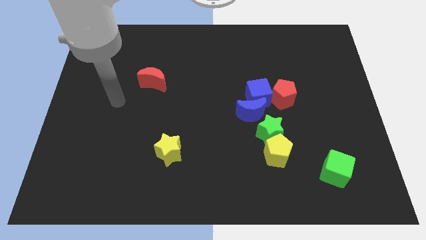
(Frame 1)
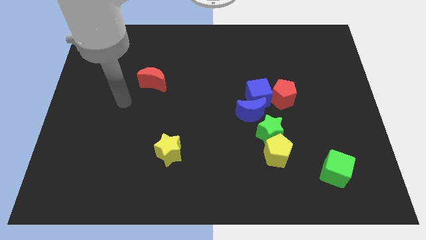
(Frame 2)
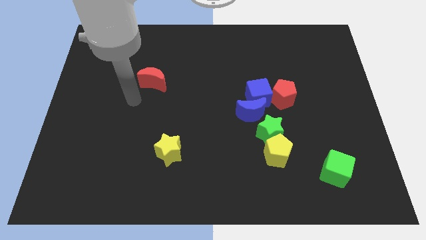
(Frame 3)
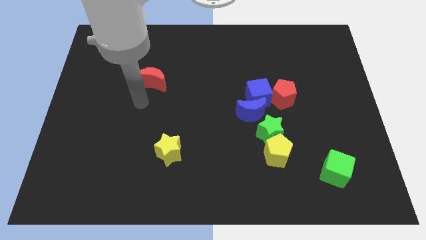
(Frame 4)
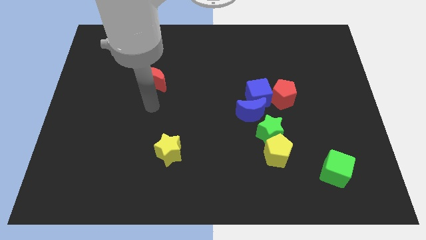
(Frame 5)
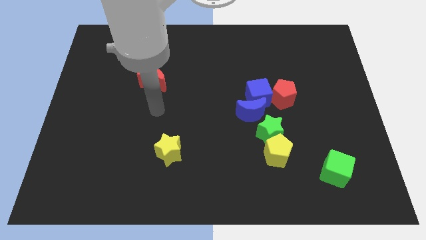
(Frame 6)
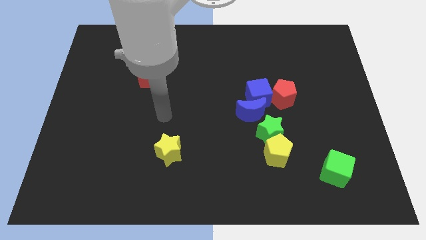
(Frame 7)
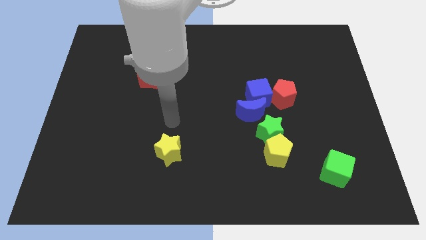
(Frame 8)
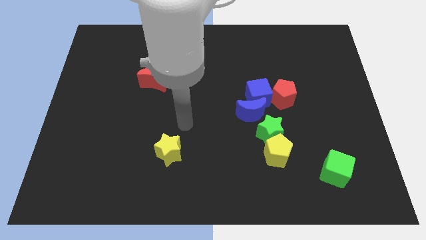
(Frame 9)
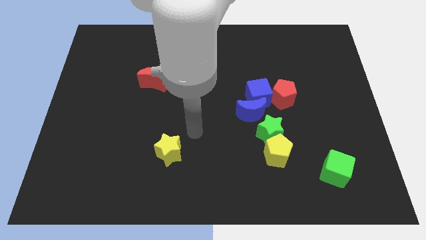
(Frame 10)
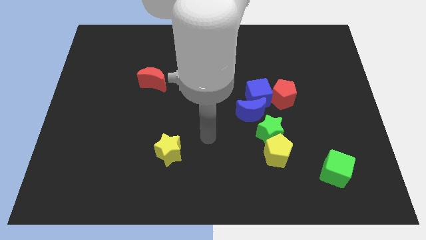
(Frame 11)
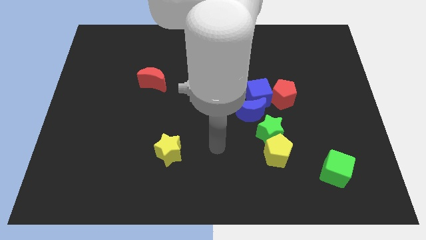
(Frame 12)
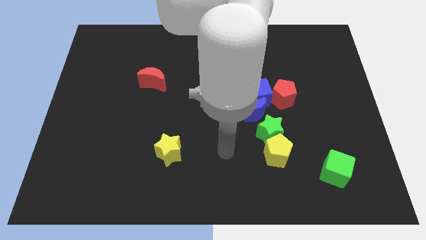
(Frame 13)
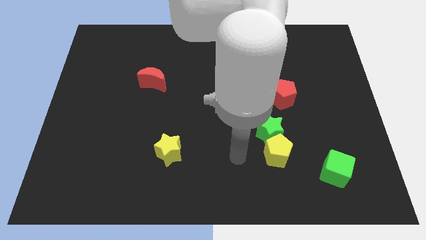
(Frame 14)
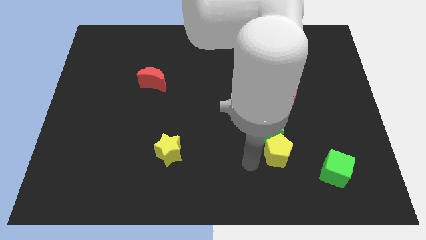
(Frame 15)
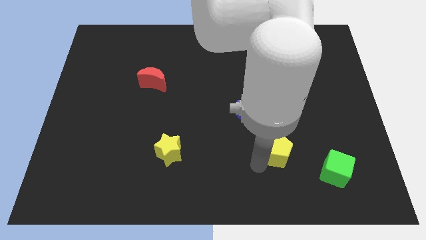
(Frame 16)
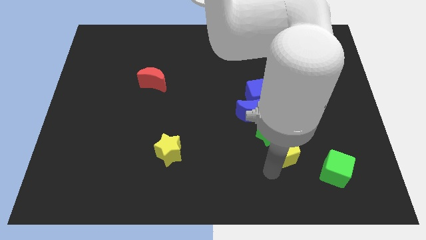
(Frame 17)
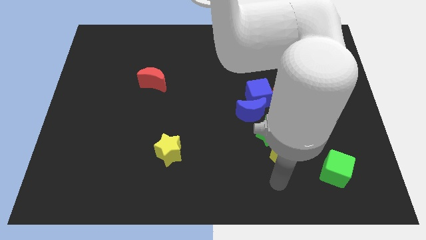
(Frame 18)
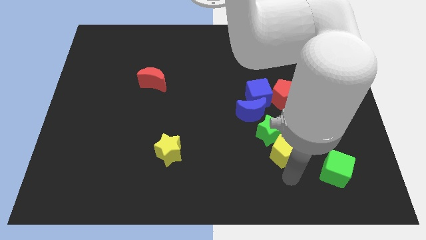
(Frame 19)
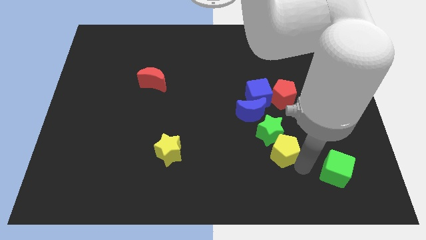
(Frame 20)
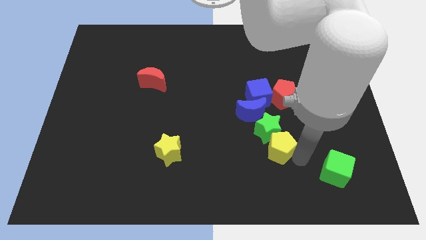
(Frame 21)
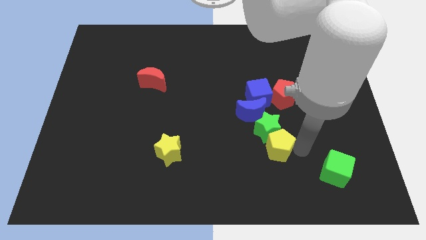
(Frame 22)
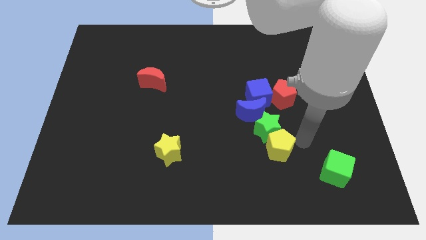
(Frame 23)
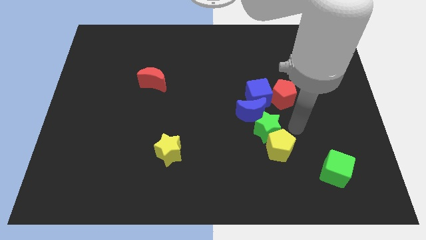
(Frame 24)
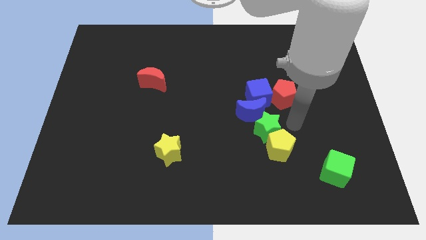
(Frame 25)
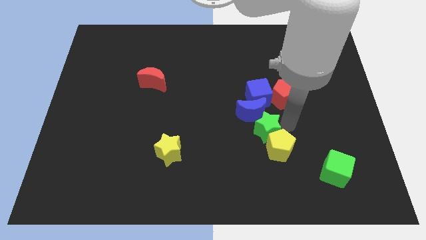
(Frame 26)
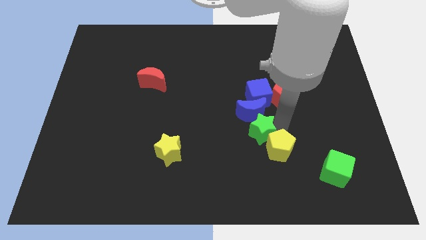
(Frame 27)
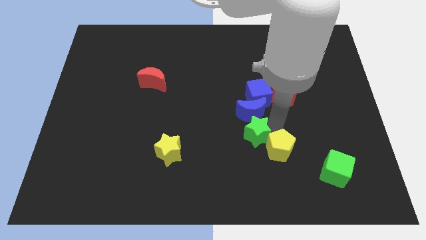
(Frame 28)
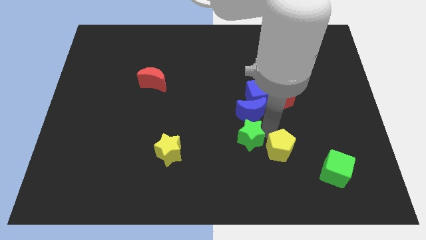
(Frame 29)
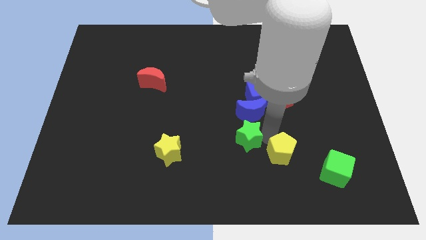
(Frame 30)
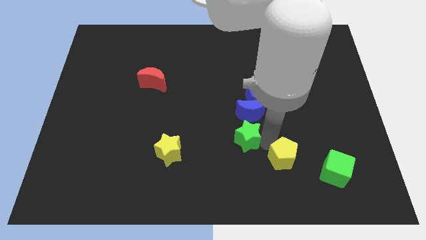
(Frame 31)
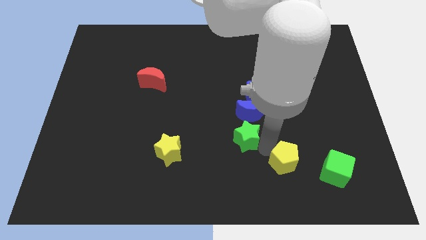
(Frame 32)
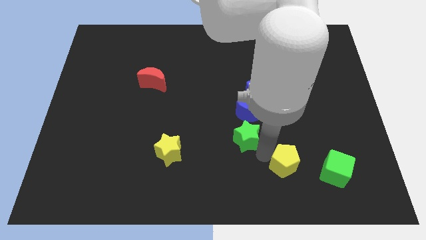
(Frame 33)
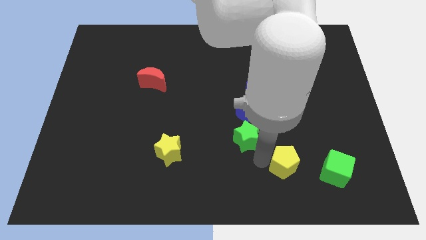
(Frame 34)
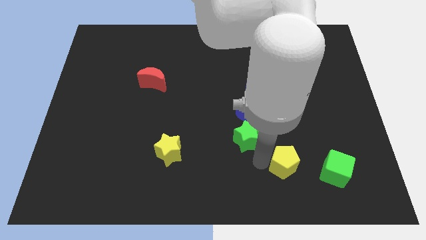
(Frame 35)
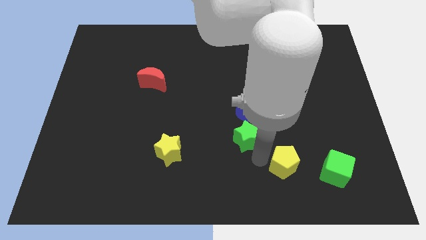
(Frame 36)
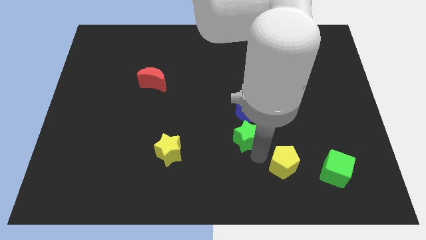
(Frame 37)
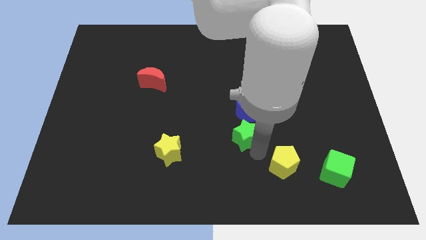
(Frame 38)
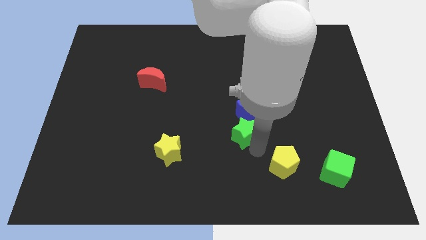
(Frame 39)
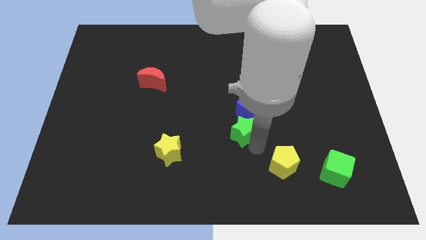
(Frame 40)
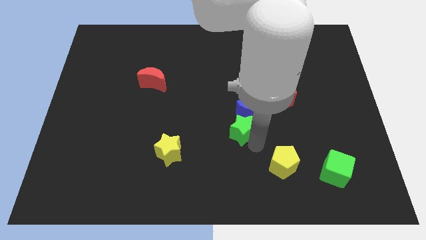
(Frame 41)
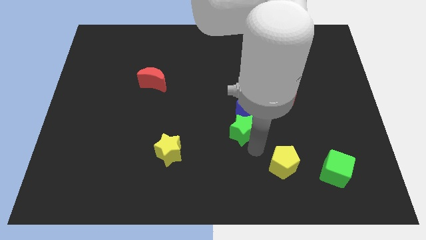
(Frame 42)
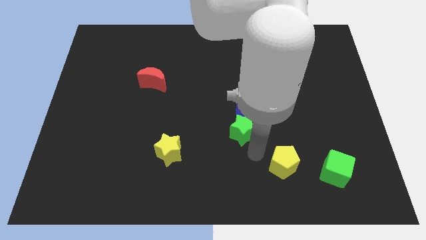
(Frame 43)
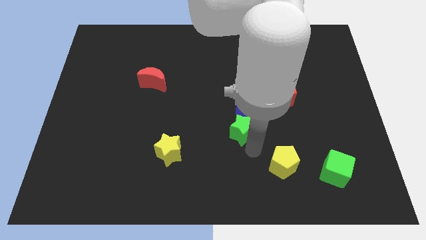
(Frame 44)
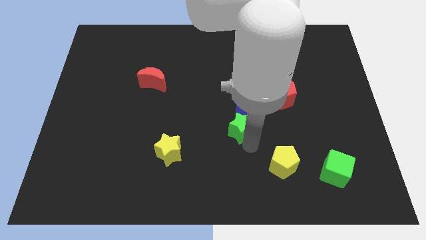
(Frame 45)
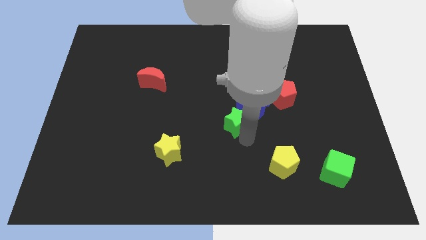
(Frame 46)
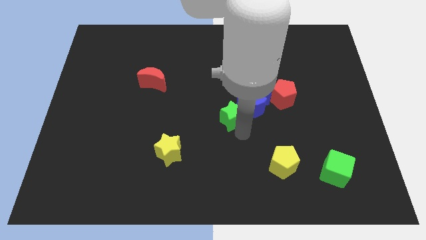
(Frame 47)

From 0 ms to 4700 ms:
move the green star a bit up and to the left

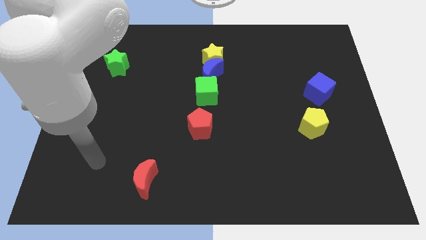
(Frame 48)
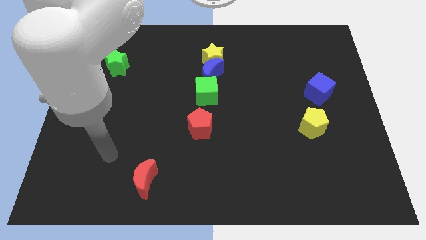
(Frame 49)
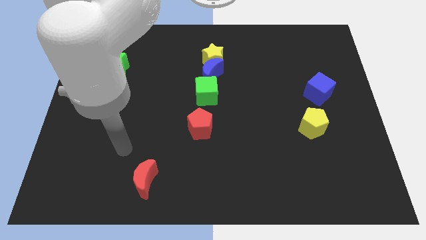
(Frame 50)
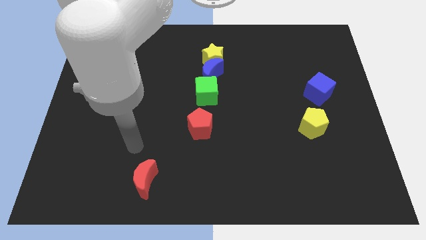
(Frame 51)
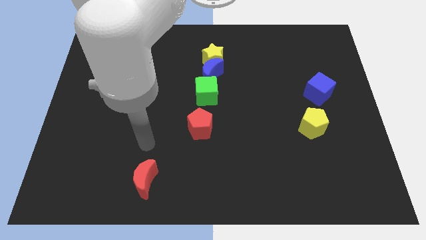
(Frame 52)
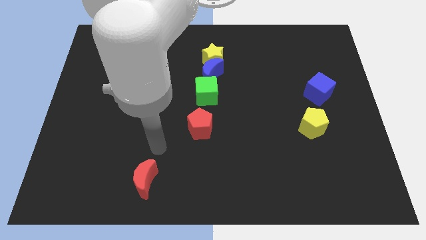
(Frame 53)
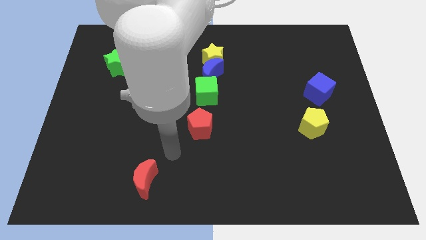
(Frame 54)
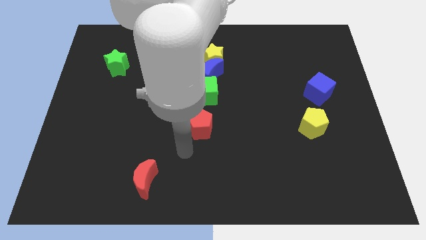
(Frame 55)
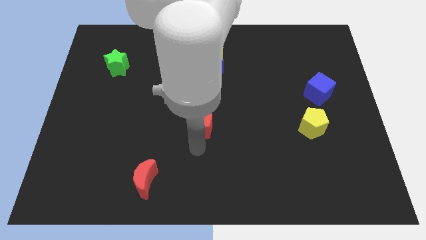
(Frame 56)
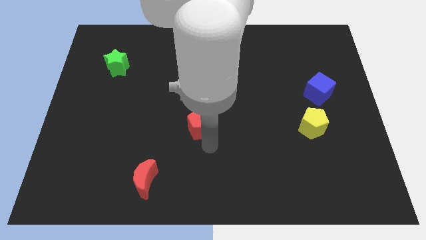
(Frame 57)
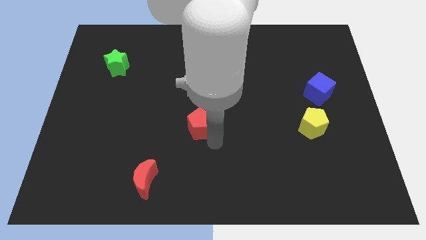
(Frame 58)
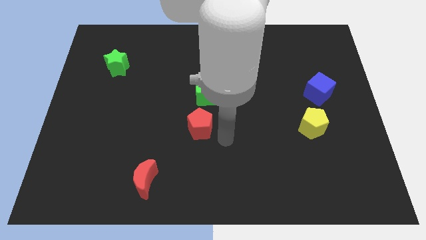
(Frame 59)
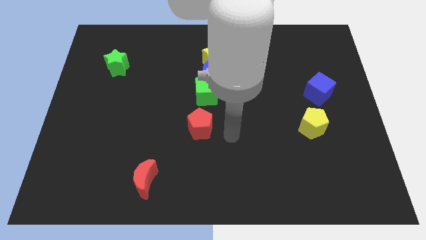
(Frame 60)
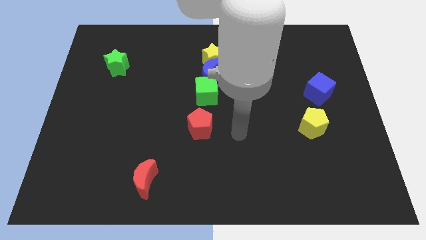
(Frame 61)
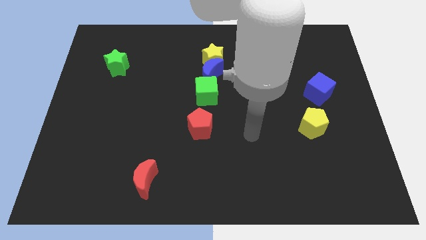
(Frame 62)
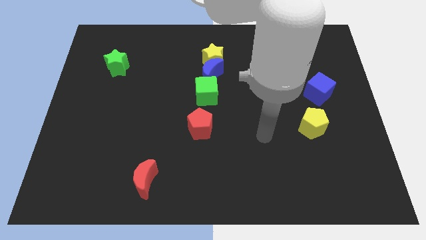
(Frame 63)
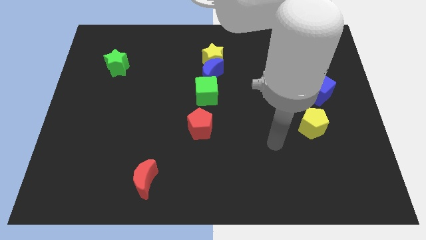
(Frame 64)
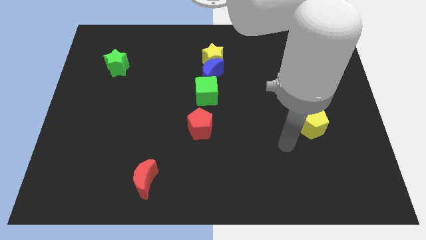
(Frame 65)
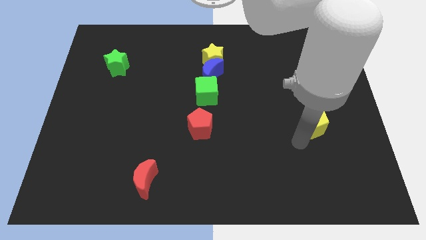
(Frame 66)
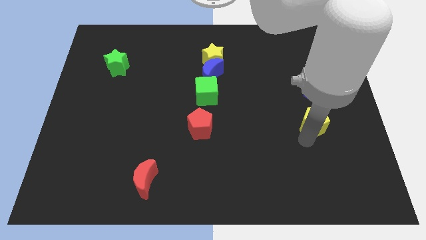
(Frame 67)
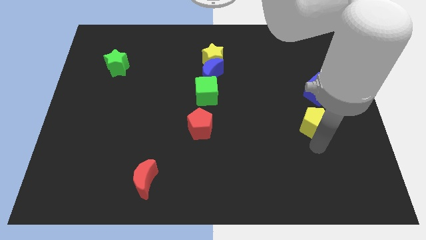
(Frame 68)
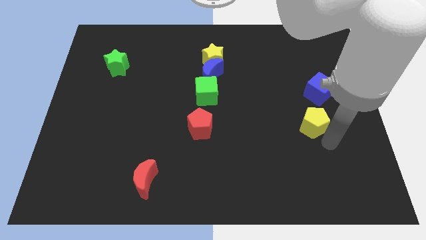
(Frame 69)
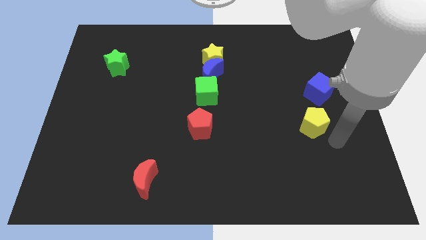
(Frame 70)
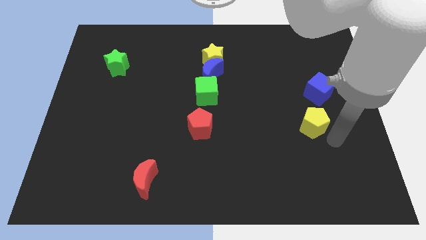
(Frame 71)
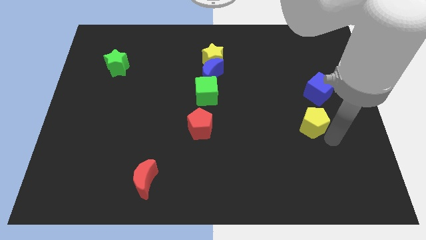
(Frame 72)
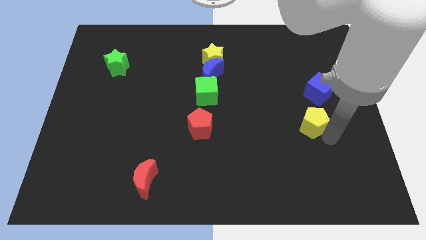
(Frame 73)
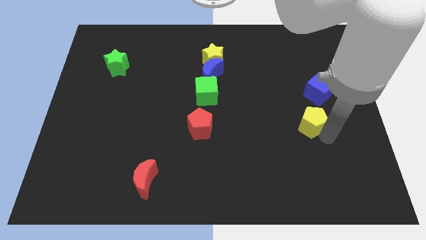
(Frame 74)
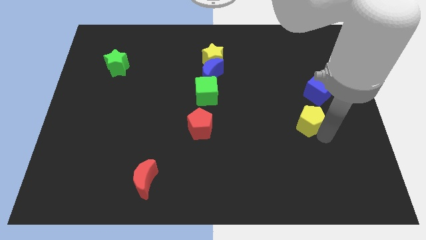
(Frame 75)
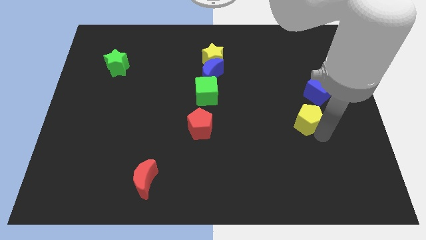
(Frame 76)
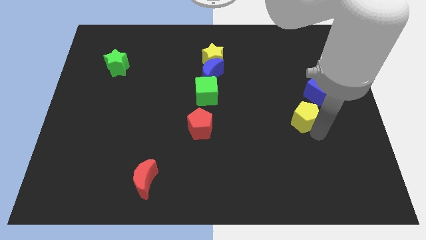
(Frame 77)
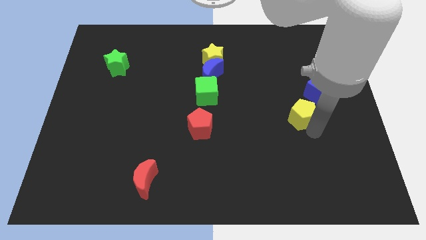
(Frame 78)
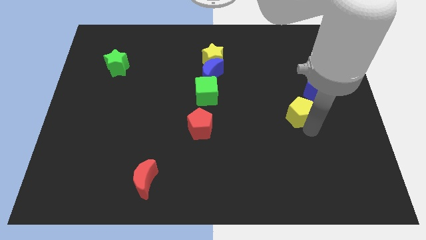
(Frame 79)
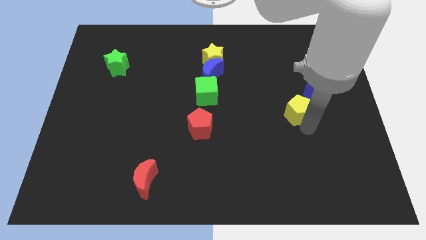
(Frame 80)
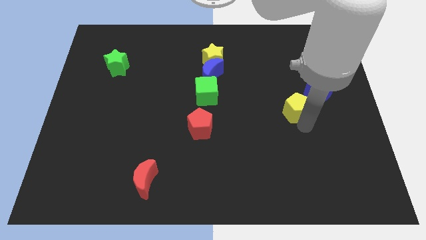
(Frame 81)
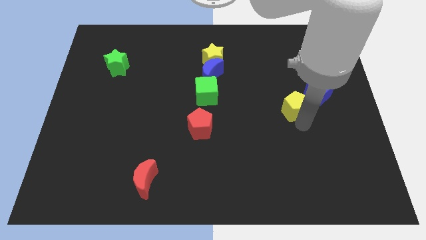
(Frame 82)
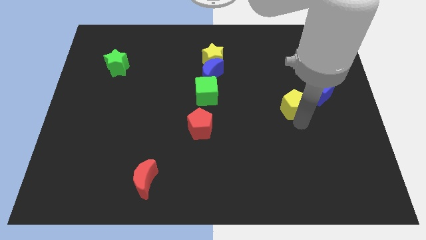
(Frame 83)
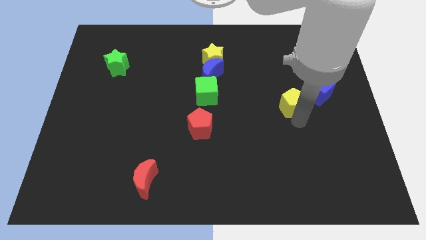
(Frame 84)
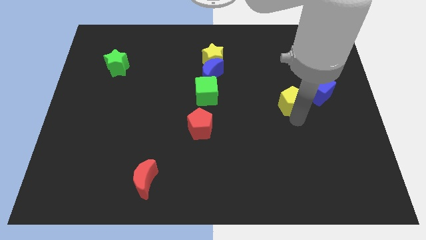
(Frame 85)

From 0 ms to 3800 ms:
move the yellow pentagon up and to the left a bit
